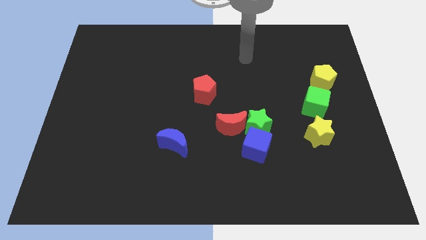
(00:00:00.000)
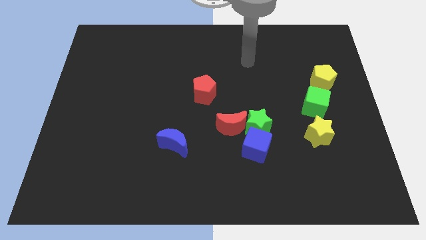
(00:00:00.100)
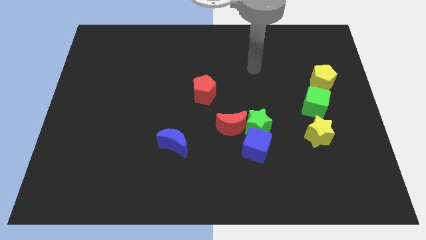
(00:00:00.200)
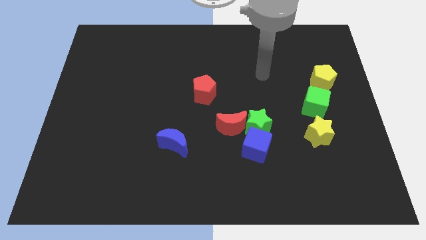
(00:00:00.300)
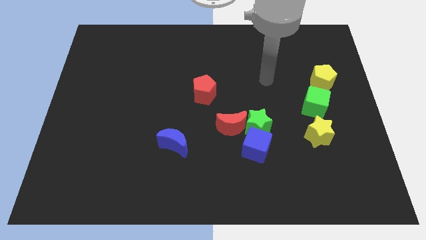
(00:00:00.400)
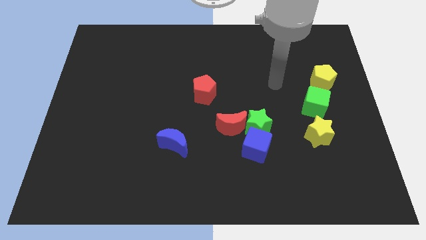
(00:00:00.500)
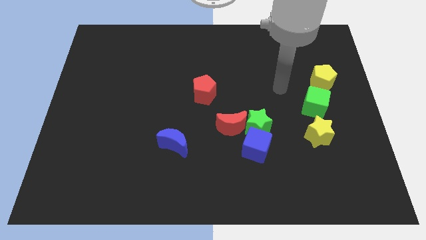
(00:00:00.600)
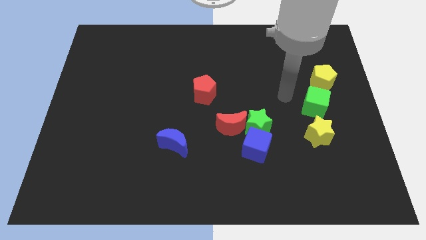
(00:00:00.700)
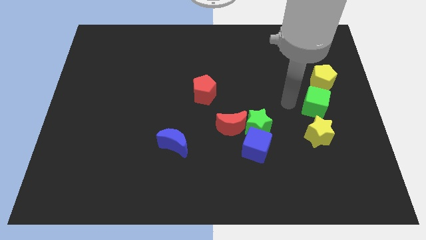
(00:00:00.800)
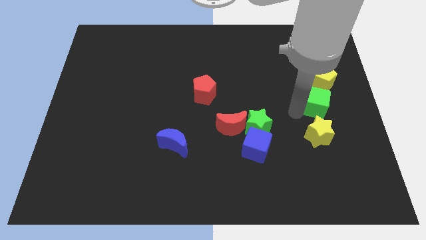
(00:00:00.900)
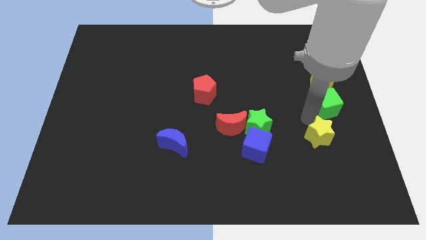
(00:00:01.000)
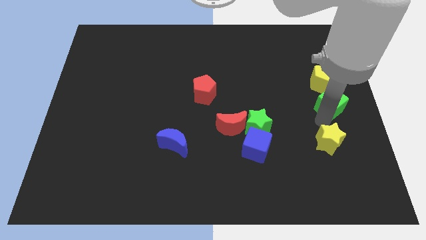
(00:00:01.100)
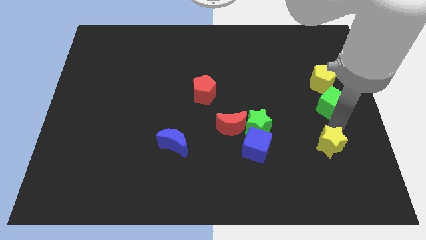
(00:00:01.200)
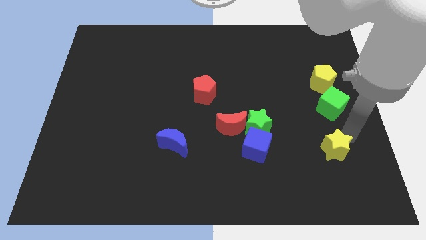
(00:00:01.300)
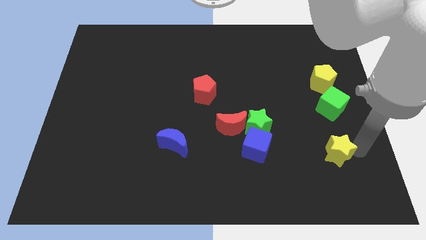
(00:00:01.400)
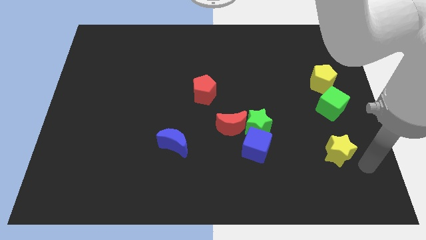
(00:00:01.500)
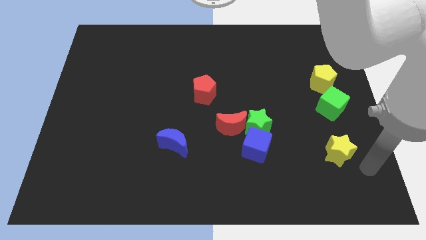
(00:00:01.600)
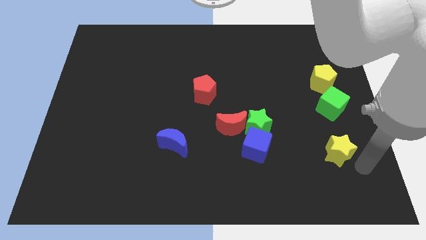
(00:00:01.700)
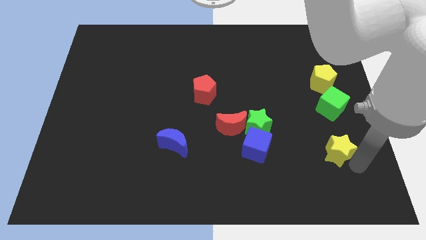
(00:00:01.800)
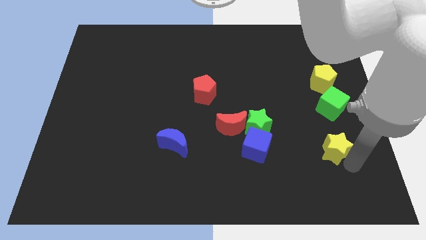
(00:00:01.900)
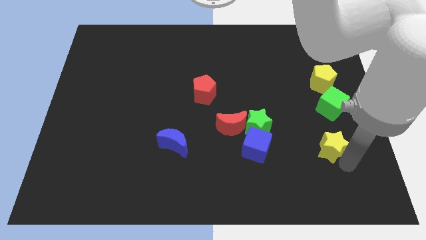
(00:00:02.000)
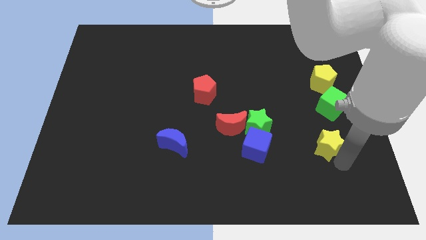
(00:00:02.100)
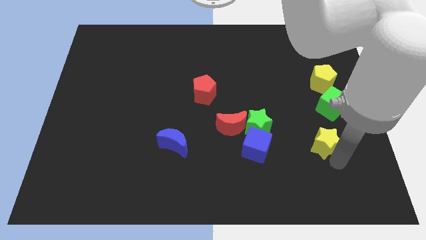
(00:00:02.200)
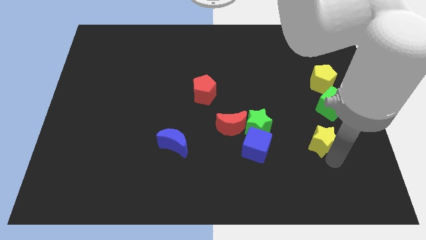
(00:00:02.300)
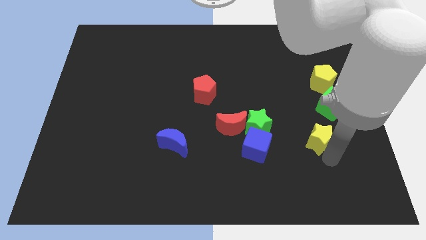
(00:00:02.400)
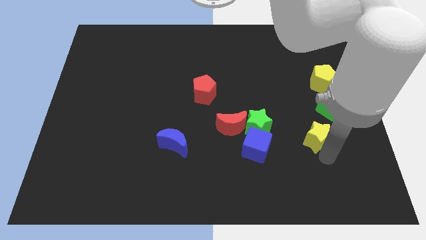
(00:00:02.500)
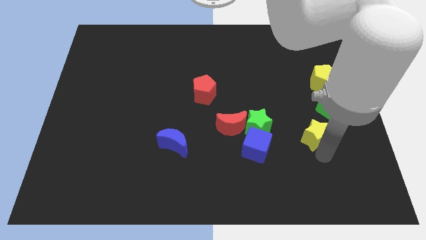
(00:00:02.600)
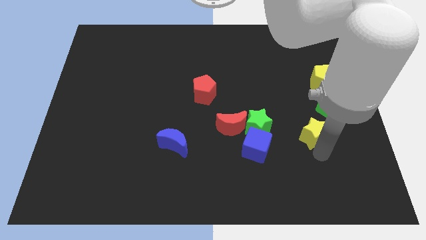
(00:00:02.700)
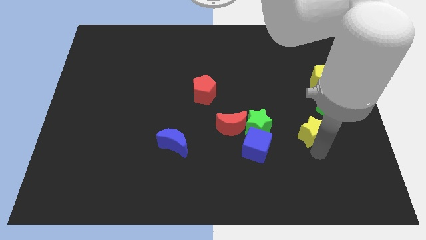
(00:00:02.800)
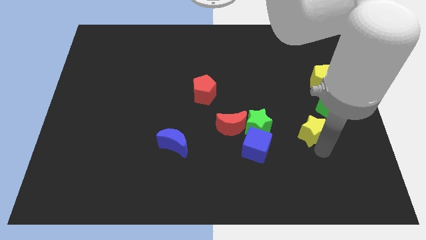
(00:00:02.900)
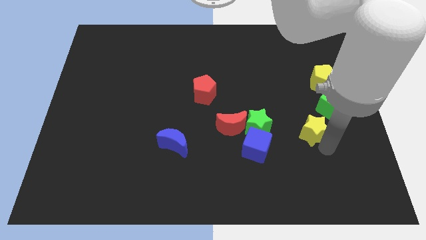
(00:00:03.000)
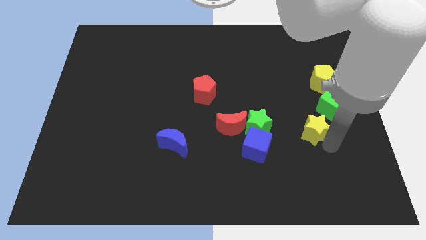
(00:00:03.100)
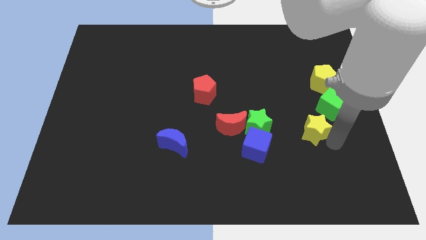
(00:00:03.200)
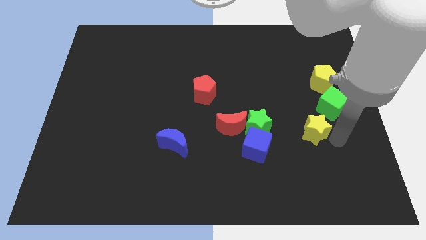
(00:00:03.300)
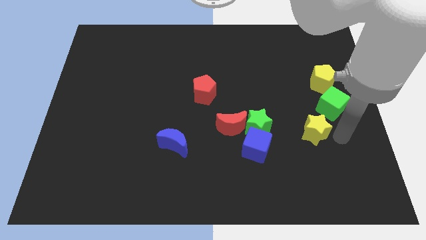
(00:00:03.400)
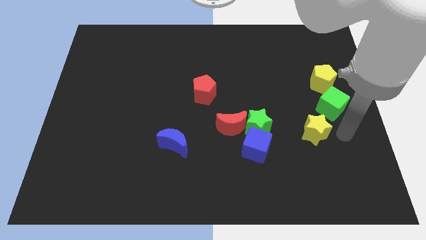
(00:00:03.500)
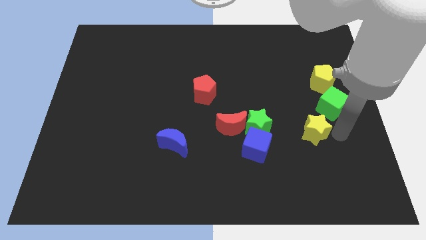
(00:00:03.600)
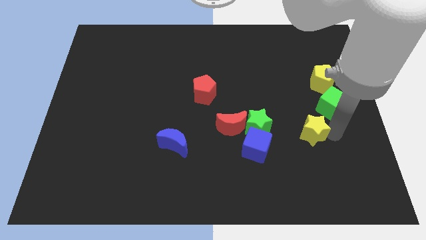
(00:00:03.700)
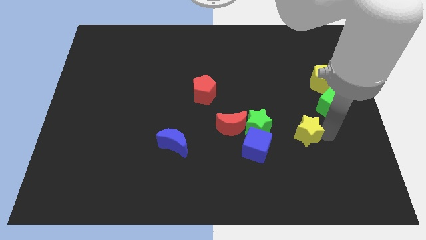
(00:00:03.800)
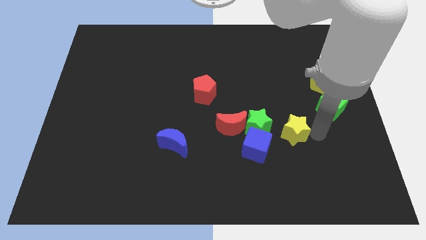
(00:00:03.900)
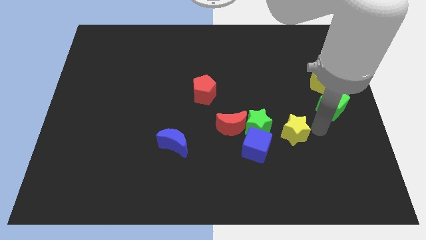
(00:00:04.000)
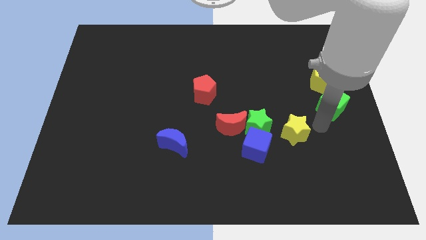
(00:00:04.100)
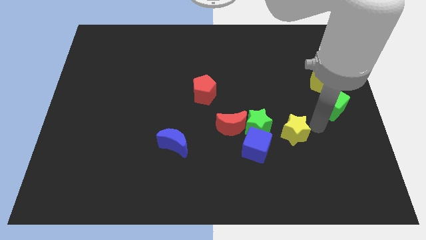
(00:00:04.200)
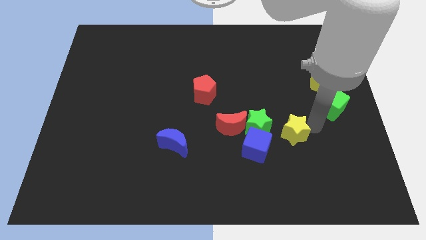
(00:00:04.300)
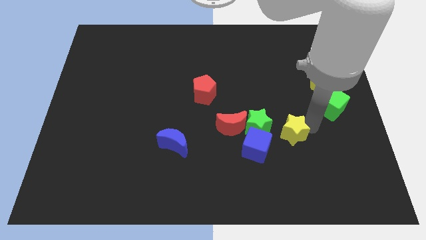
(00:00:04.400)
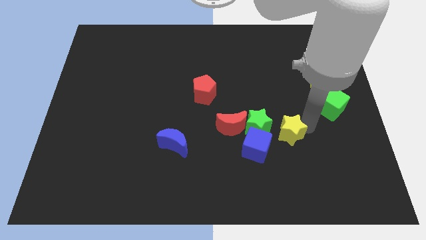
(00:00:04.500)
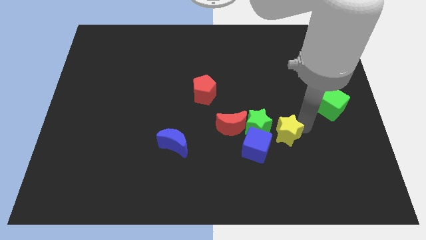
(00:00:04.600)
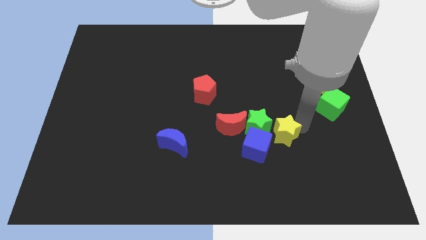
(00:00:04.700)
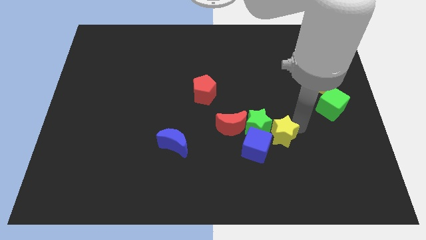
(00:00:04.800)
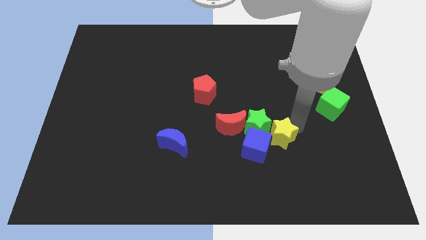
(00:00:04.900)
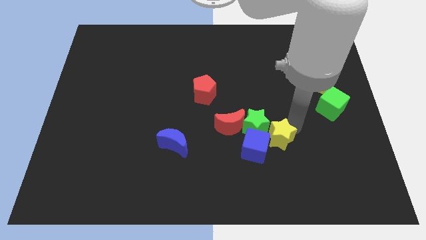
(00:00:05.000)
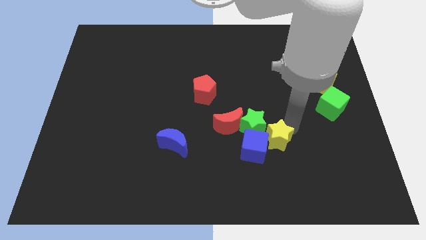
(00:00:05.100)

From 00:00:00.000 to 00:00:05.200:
put the yellow star towards the blue cube

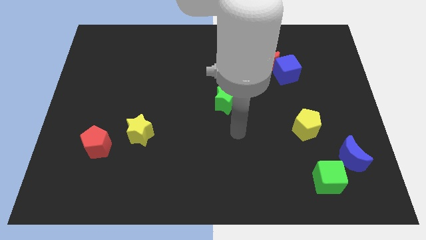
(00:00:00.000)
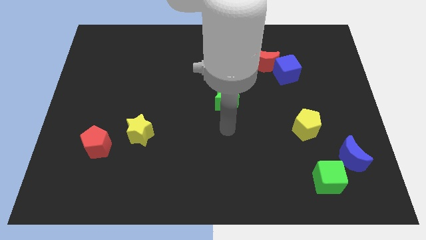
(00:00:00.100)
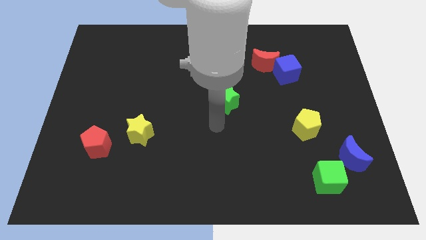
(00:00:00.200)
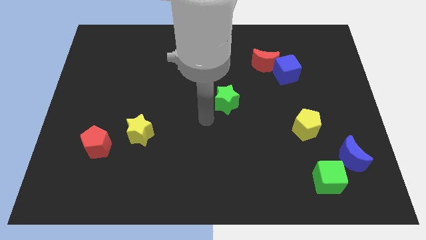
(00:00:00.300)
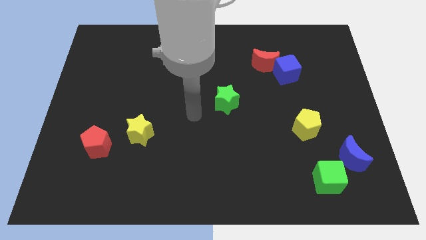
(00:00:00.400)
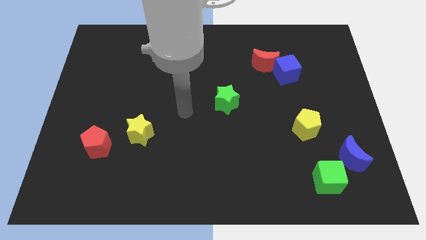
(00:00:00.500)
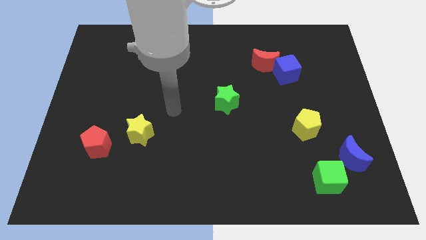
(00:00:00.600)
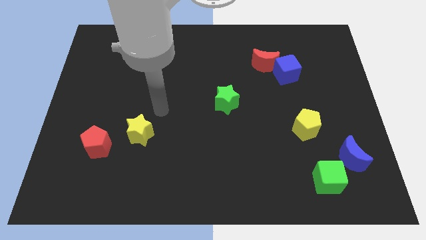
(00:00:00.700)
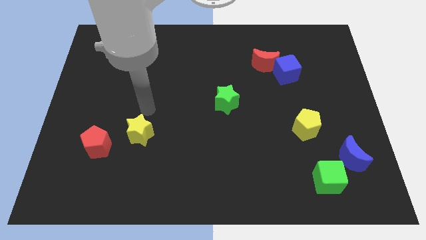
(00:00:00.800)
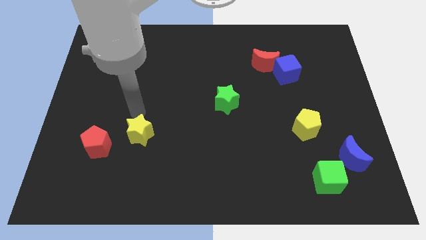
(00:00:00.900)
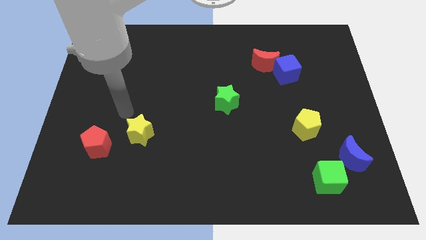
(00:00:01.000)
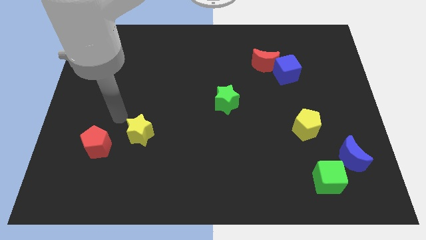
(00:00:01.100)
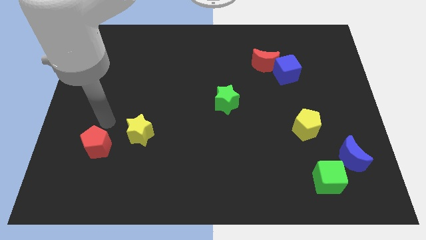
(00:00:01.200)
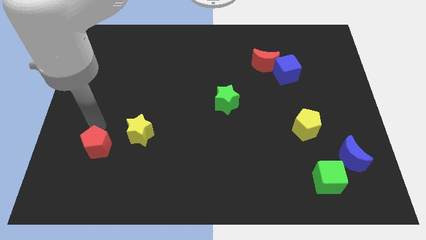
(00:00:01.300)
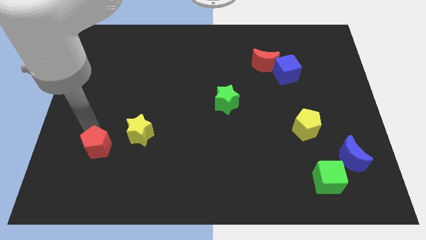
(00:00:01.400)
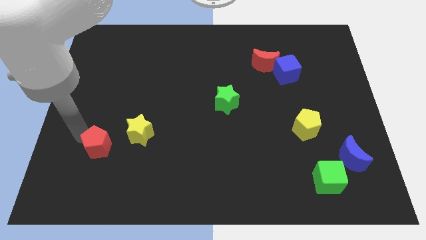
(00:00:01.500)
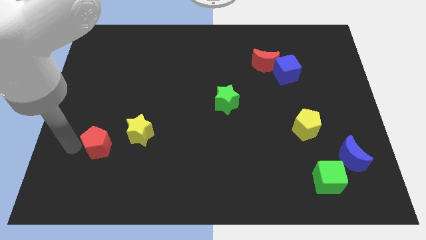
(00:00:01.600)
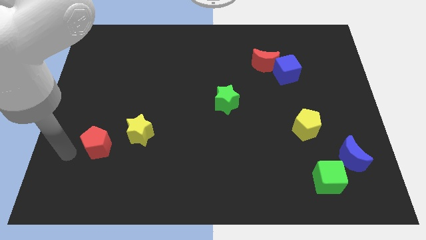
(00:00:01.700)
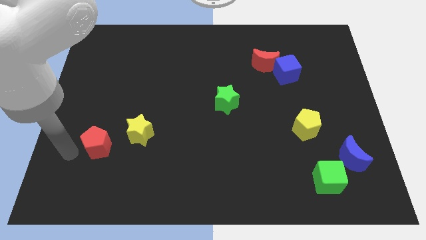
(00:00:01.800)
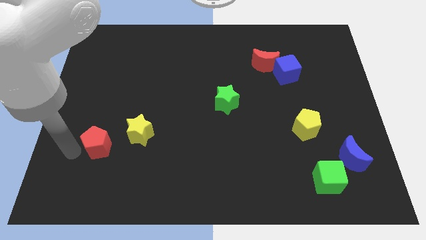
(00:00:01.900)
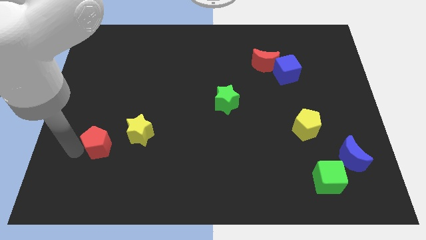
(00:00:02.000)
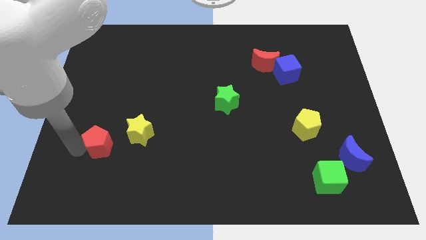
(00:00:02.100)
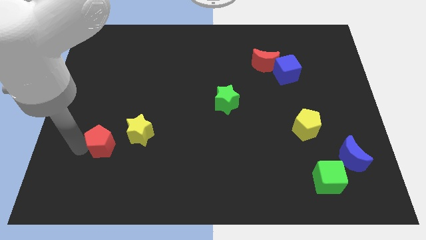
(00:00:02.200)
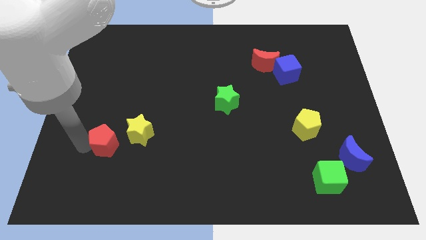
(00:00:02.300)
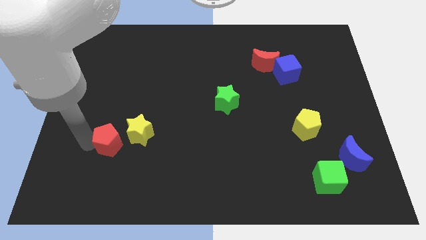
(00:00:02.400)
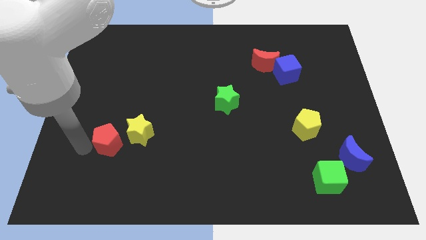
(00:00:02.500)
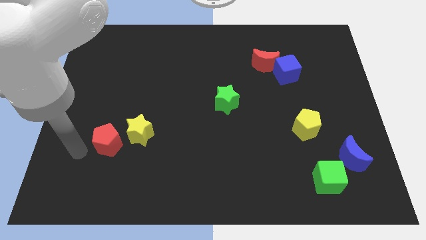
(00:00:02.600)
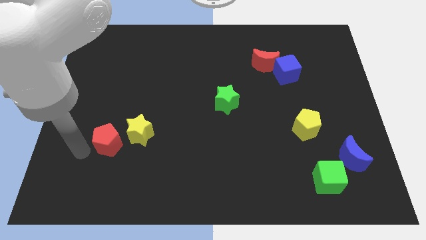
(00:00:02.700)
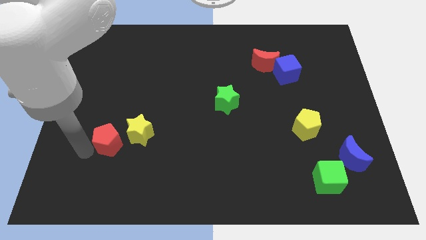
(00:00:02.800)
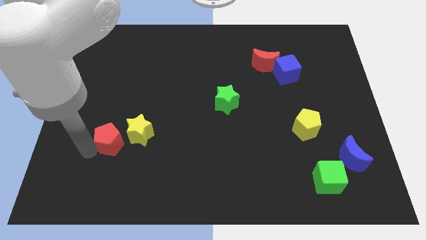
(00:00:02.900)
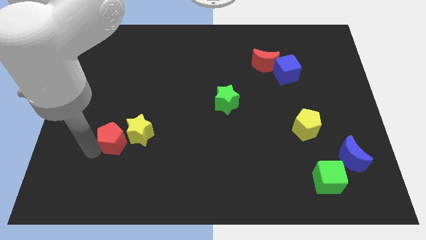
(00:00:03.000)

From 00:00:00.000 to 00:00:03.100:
slide the red pentagon close to the yellow star
